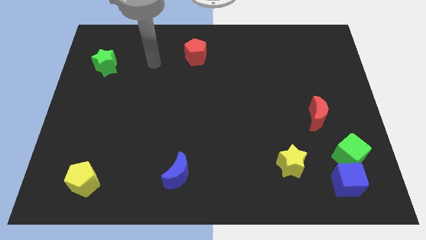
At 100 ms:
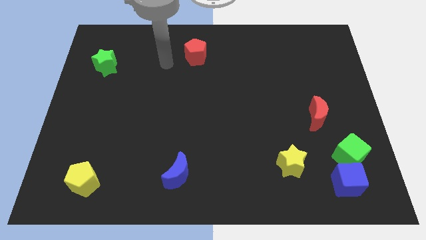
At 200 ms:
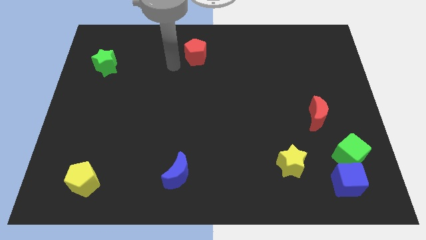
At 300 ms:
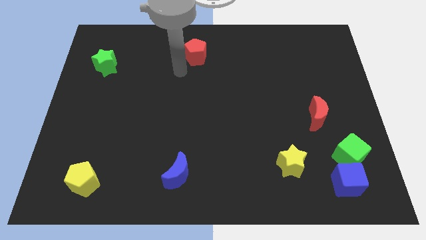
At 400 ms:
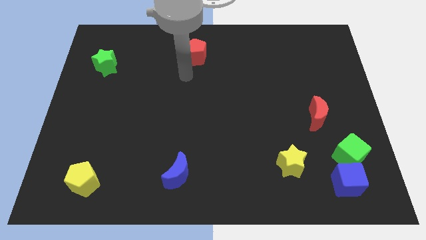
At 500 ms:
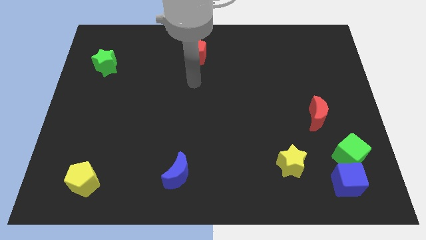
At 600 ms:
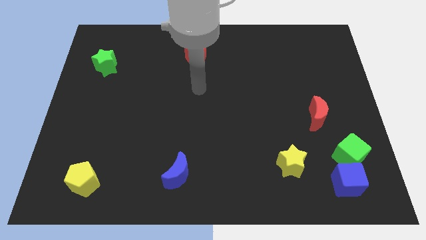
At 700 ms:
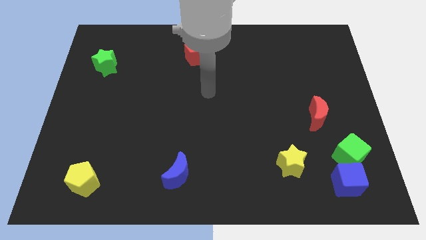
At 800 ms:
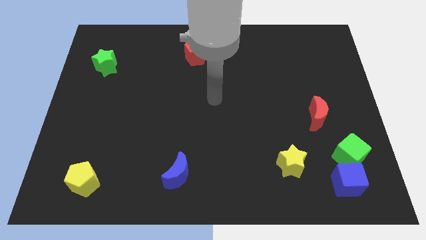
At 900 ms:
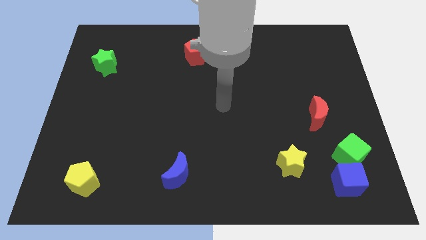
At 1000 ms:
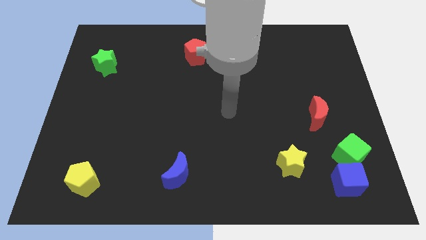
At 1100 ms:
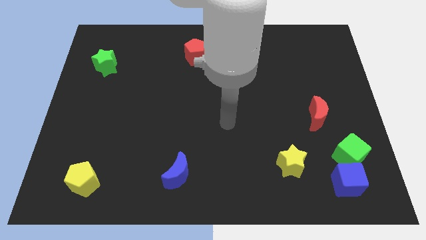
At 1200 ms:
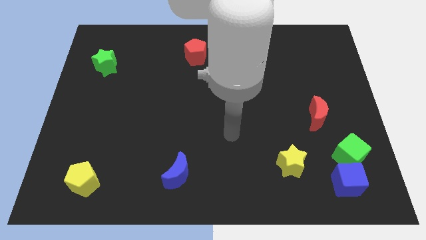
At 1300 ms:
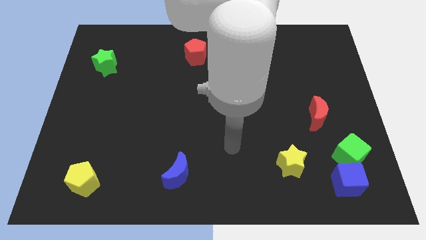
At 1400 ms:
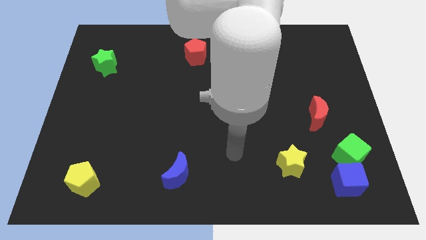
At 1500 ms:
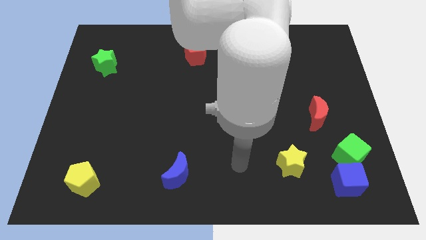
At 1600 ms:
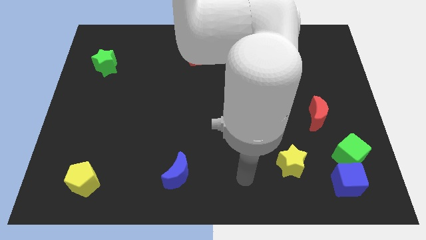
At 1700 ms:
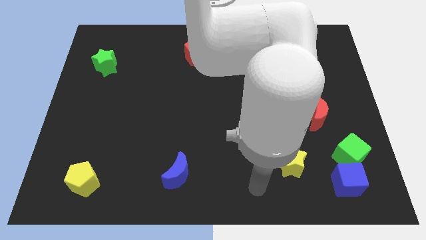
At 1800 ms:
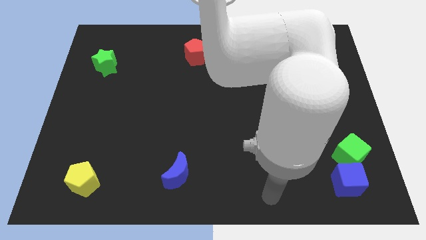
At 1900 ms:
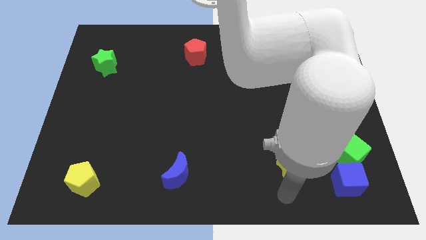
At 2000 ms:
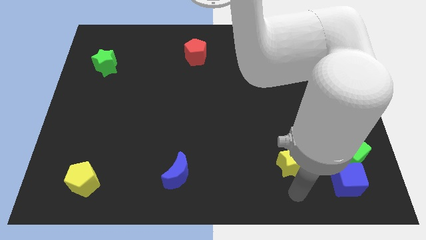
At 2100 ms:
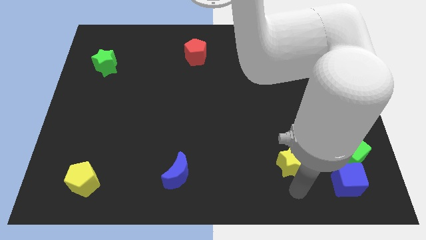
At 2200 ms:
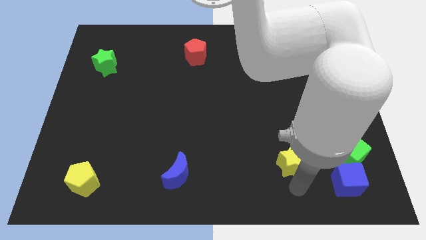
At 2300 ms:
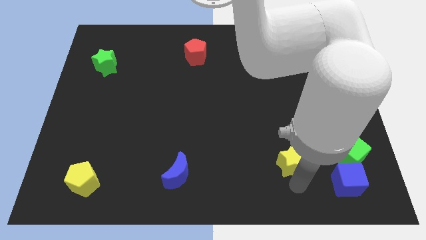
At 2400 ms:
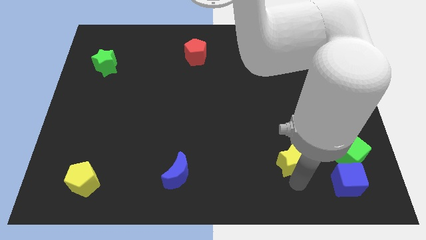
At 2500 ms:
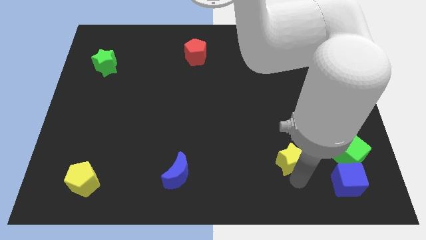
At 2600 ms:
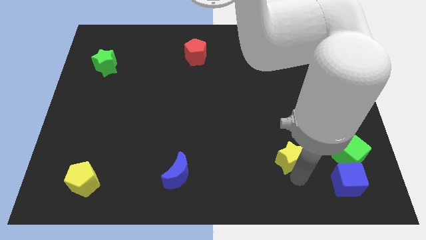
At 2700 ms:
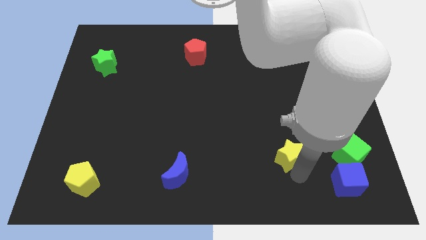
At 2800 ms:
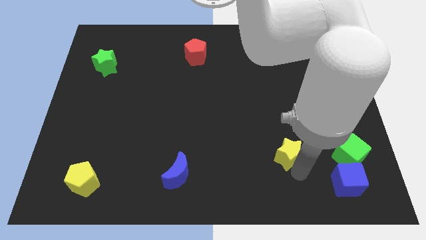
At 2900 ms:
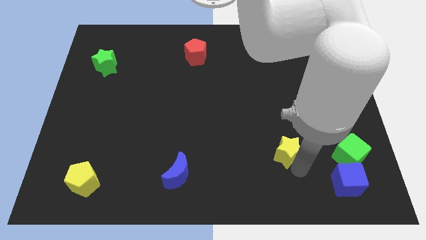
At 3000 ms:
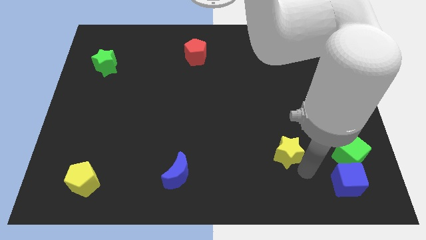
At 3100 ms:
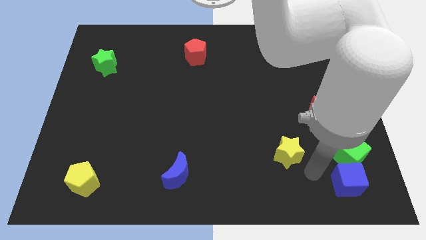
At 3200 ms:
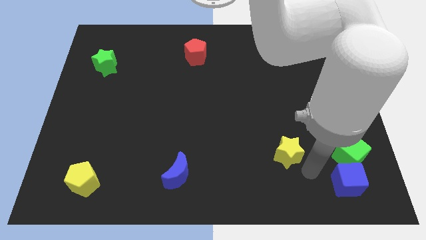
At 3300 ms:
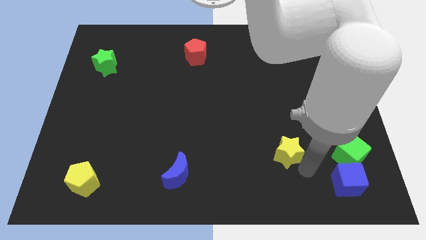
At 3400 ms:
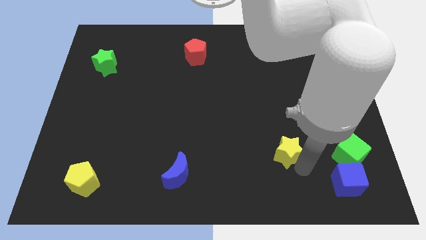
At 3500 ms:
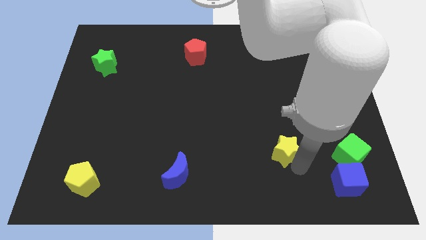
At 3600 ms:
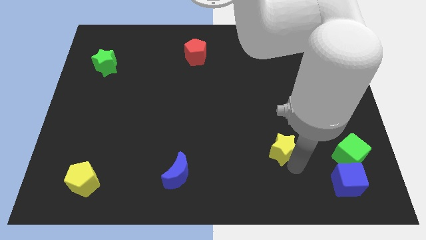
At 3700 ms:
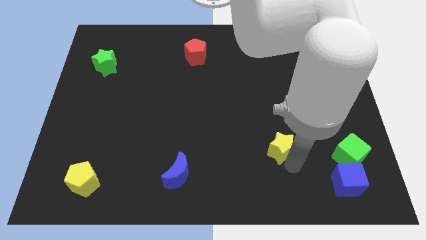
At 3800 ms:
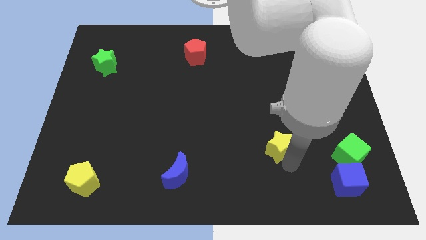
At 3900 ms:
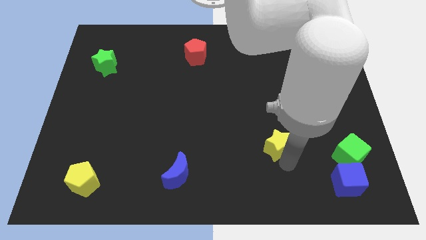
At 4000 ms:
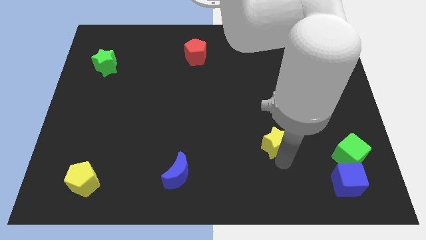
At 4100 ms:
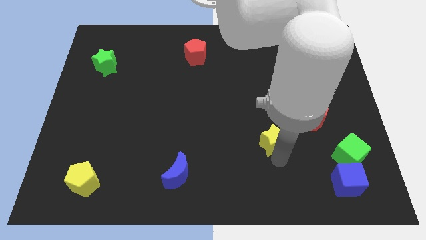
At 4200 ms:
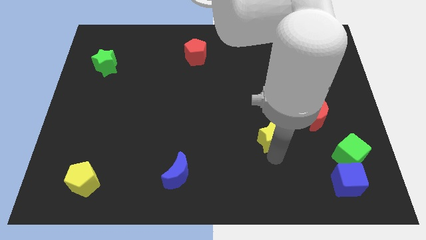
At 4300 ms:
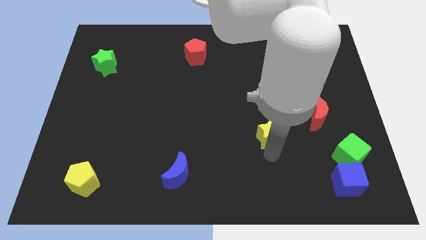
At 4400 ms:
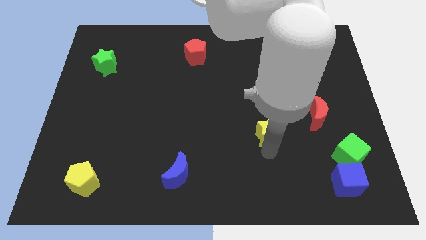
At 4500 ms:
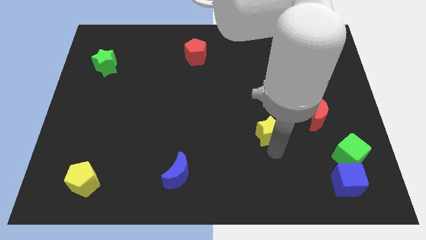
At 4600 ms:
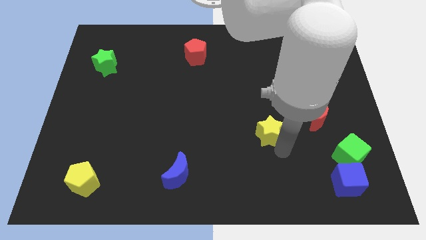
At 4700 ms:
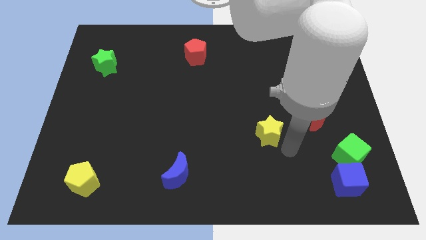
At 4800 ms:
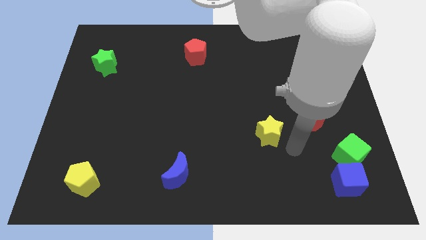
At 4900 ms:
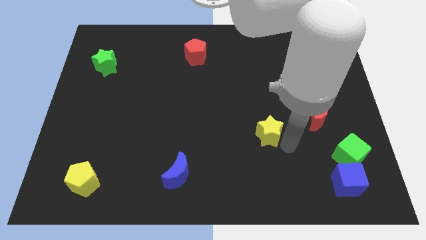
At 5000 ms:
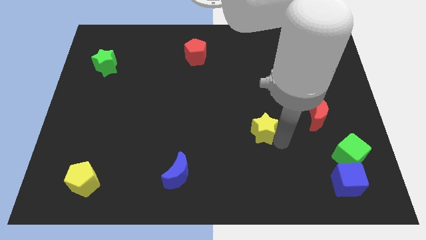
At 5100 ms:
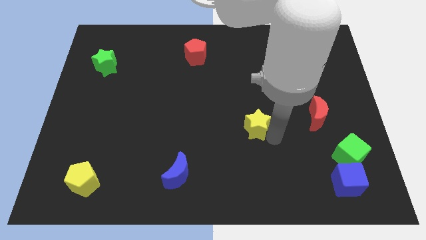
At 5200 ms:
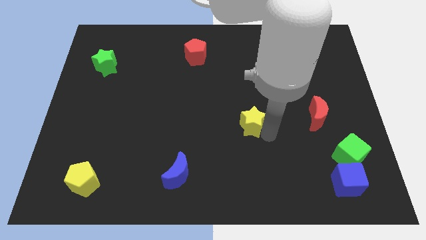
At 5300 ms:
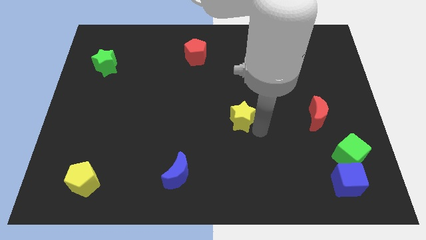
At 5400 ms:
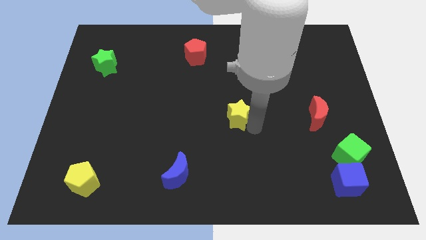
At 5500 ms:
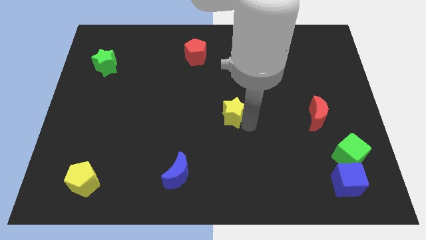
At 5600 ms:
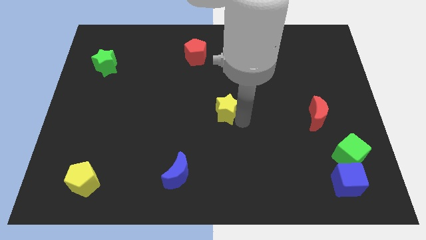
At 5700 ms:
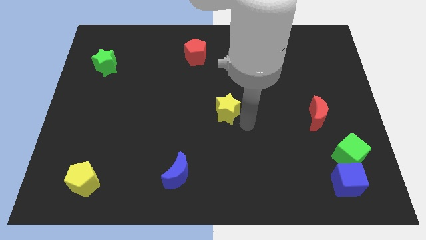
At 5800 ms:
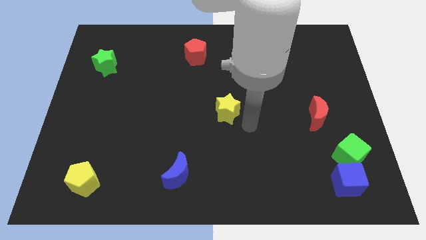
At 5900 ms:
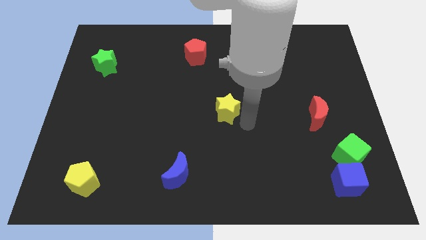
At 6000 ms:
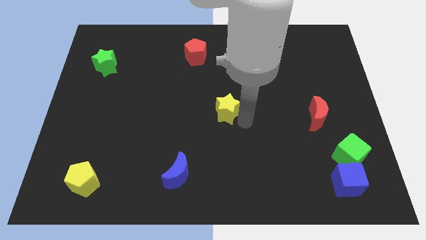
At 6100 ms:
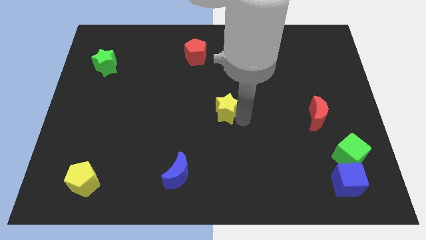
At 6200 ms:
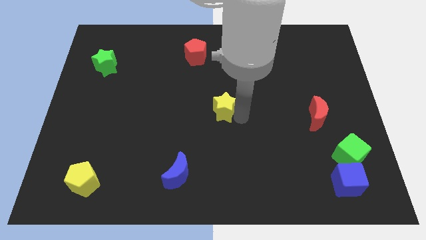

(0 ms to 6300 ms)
push the yellow star diagonally up and left

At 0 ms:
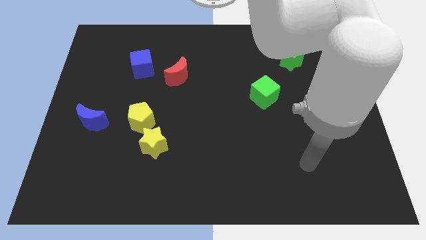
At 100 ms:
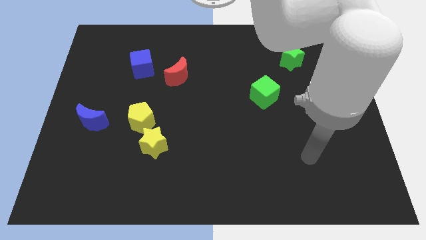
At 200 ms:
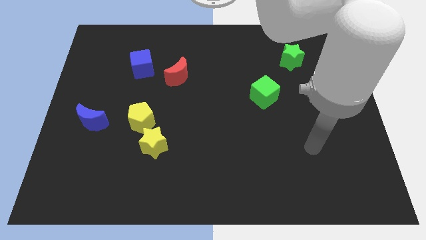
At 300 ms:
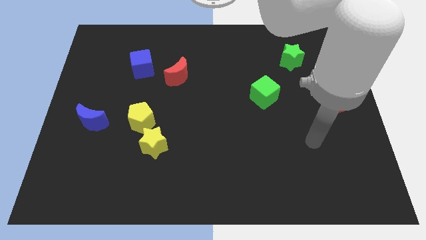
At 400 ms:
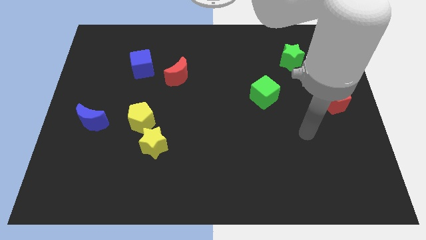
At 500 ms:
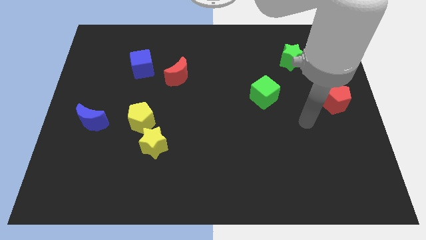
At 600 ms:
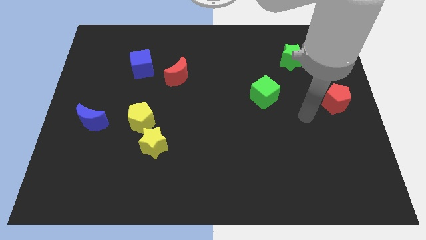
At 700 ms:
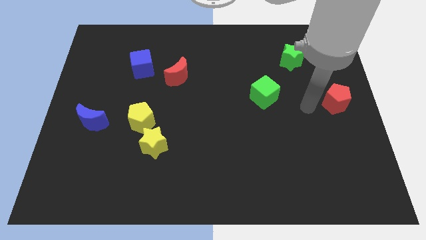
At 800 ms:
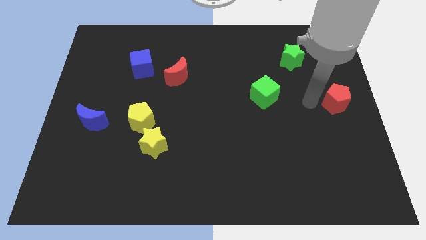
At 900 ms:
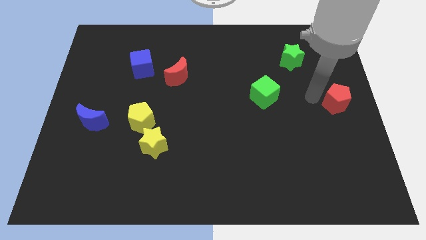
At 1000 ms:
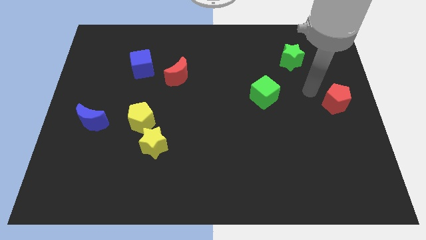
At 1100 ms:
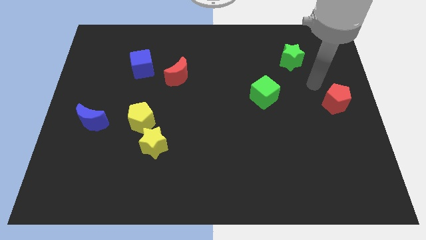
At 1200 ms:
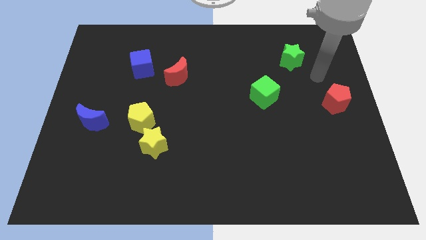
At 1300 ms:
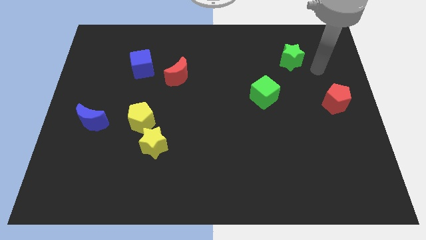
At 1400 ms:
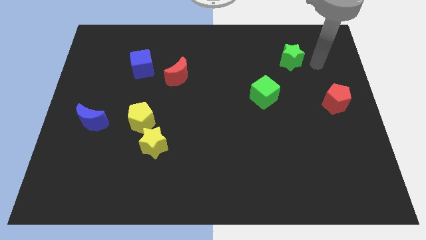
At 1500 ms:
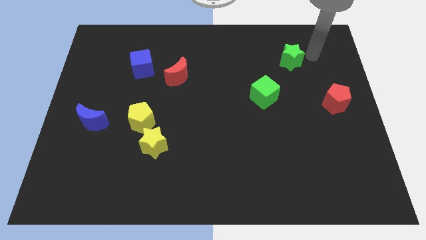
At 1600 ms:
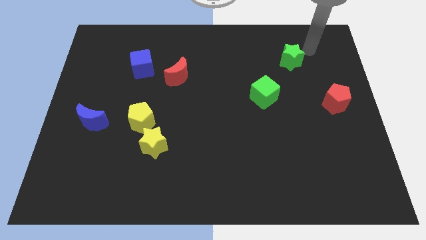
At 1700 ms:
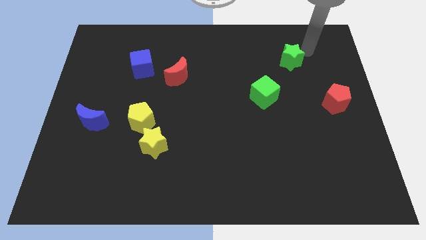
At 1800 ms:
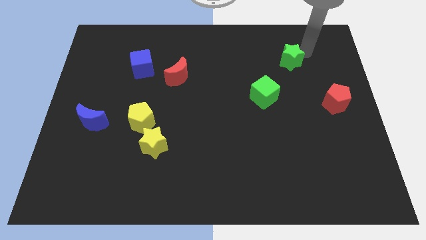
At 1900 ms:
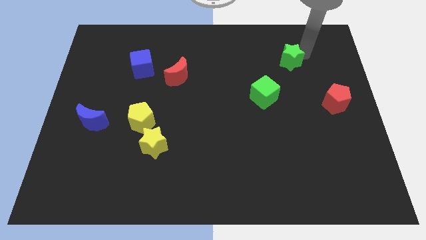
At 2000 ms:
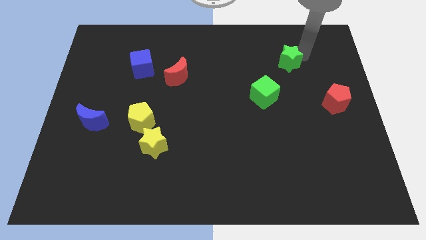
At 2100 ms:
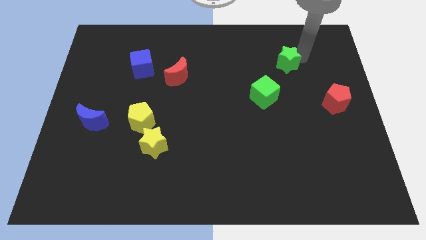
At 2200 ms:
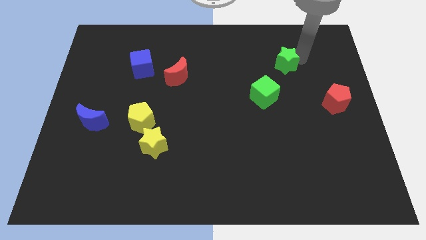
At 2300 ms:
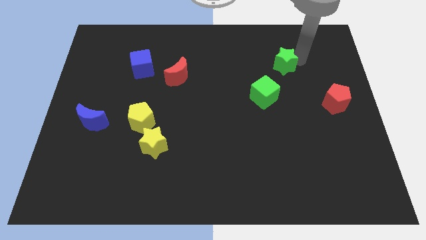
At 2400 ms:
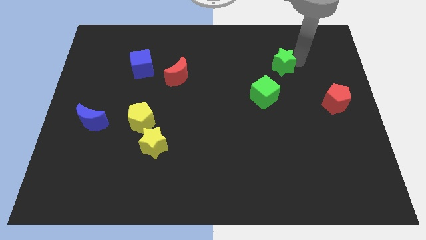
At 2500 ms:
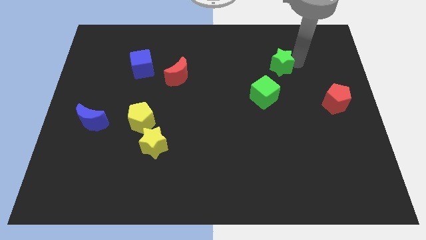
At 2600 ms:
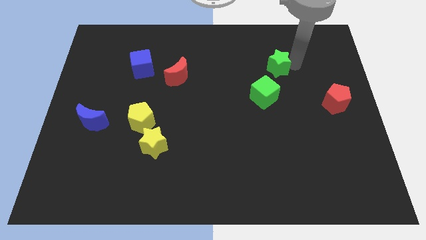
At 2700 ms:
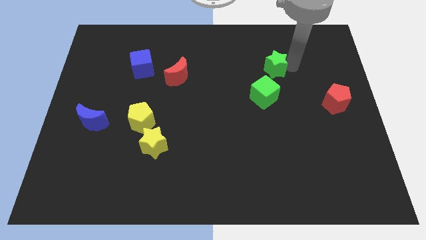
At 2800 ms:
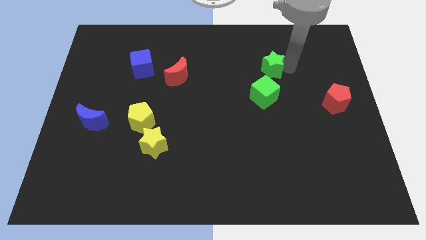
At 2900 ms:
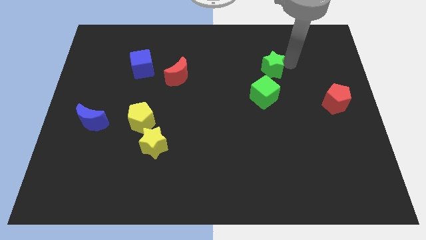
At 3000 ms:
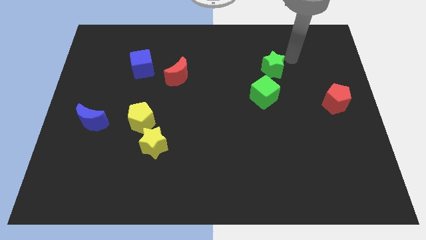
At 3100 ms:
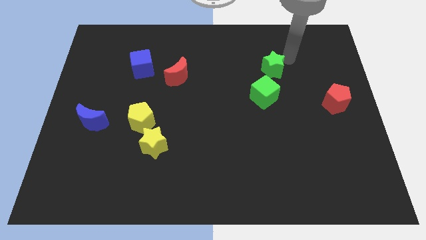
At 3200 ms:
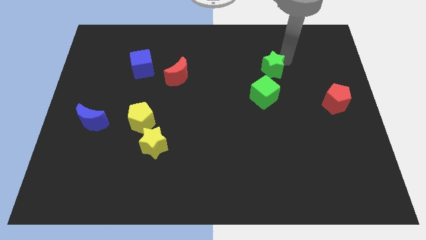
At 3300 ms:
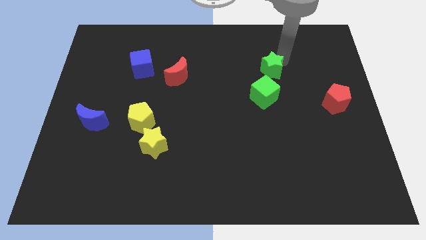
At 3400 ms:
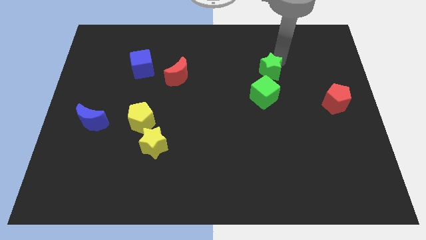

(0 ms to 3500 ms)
push the green star a little downwards and left
